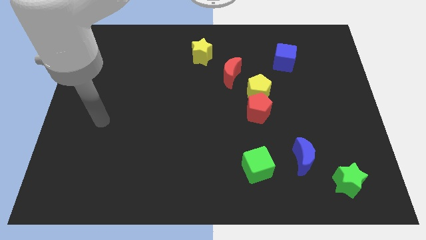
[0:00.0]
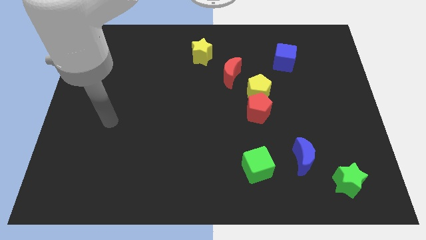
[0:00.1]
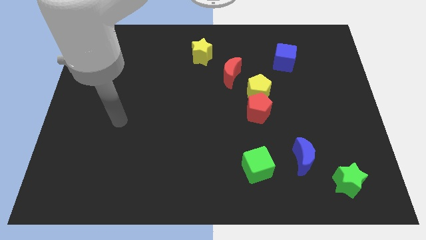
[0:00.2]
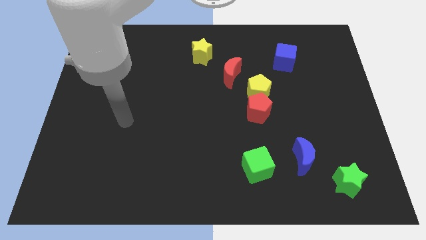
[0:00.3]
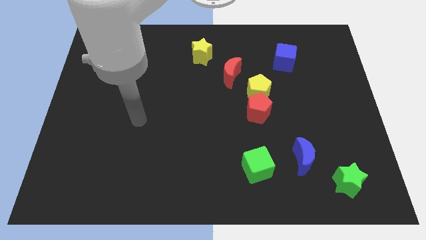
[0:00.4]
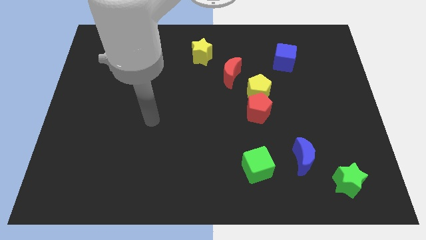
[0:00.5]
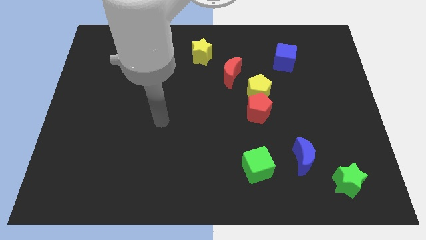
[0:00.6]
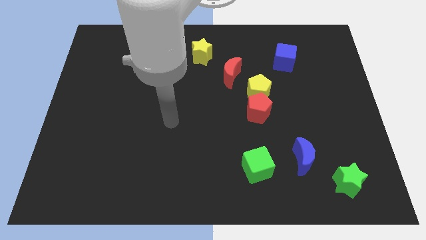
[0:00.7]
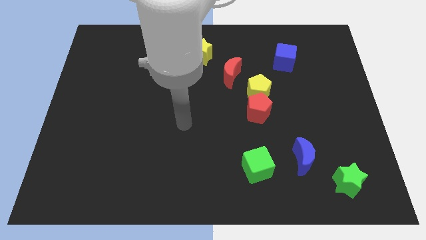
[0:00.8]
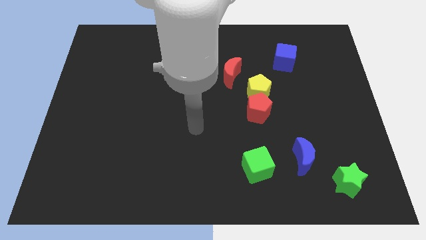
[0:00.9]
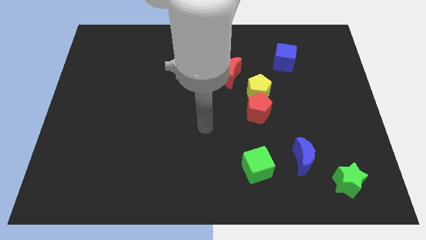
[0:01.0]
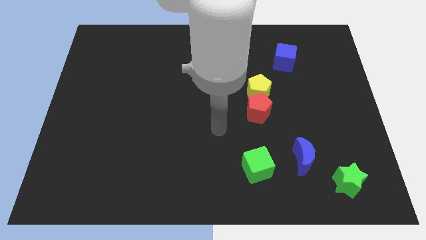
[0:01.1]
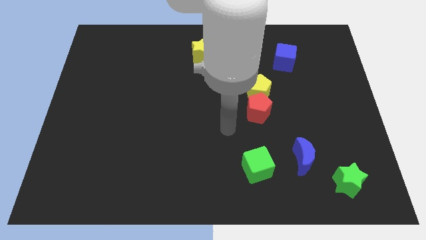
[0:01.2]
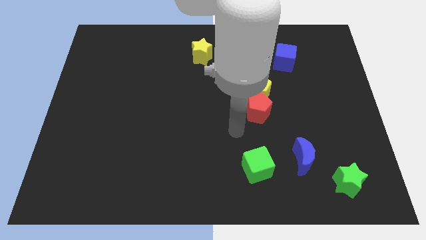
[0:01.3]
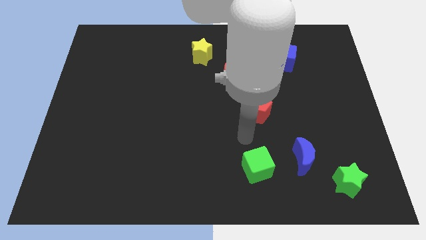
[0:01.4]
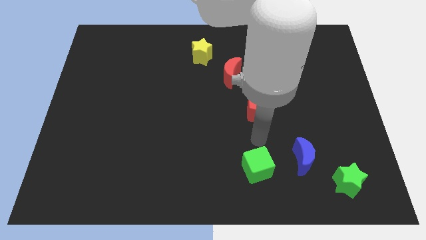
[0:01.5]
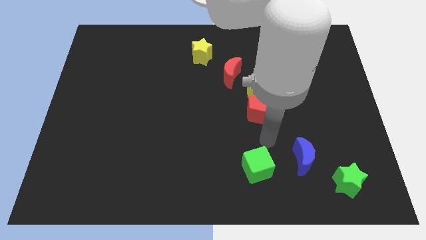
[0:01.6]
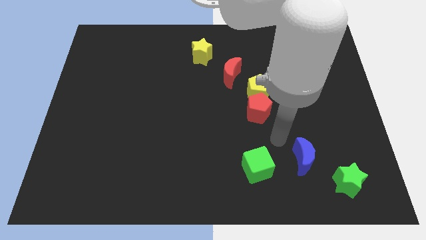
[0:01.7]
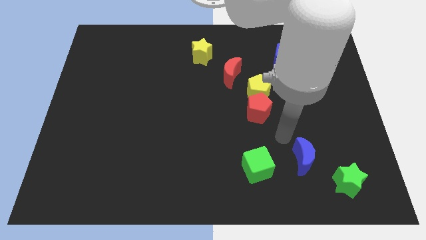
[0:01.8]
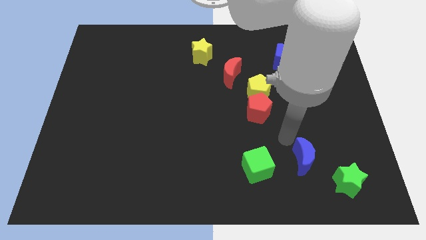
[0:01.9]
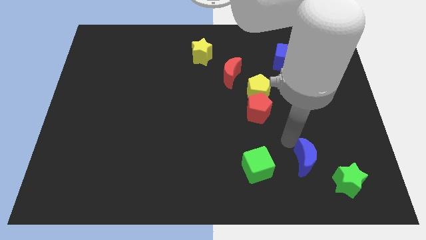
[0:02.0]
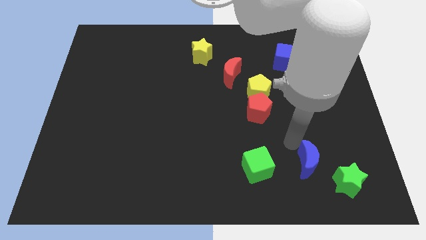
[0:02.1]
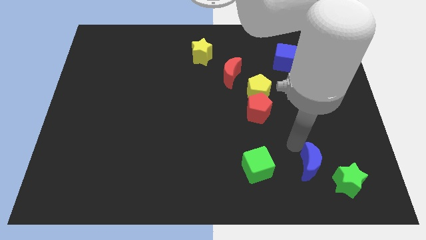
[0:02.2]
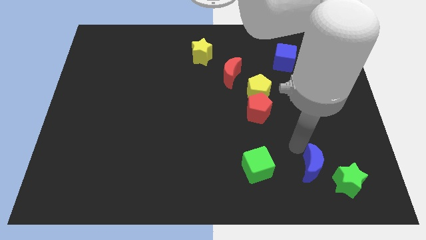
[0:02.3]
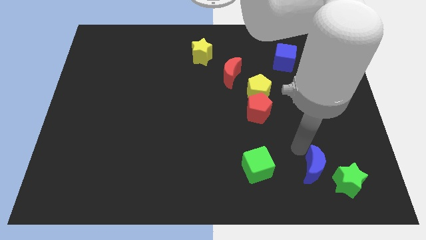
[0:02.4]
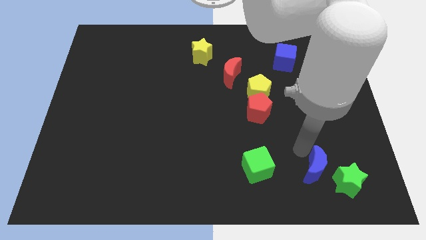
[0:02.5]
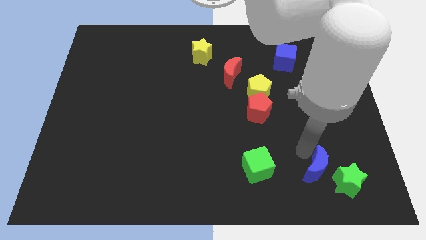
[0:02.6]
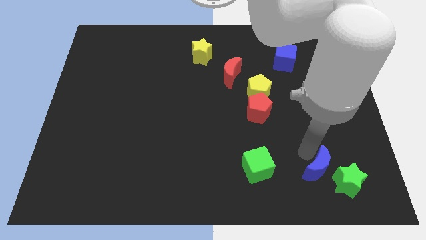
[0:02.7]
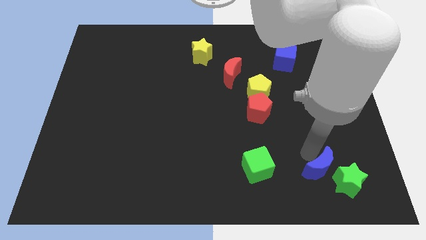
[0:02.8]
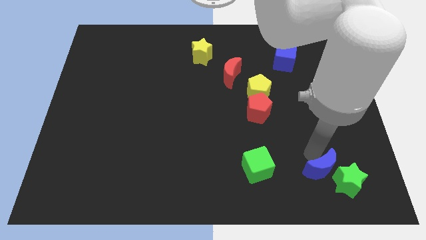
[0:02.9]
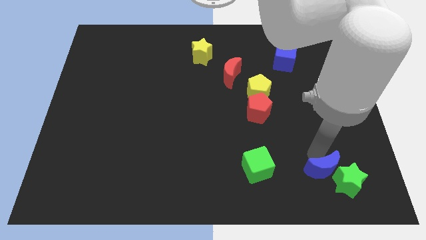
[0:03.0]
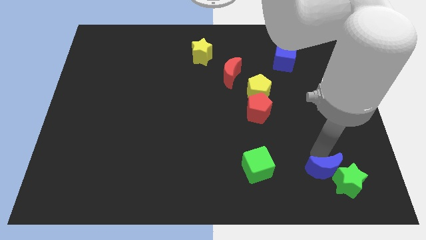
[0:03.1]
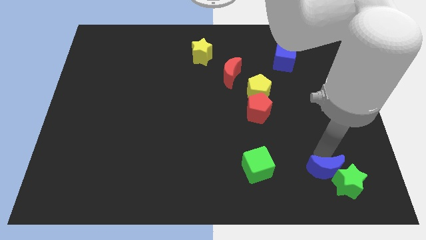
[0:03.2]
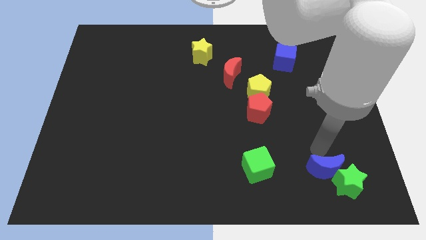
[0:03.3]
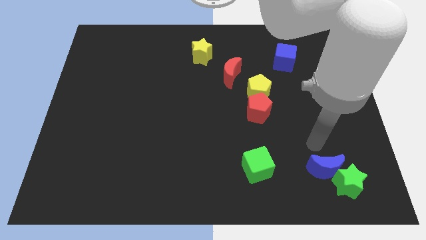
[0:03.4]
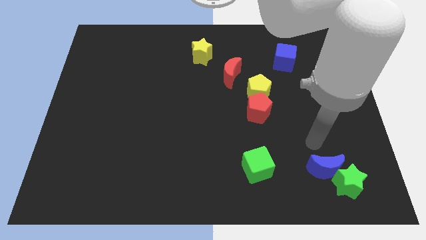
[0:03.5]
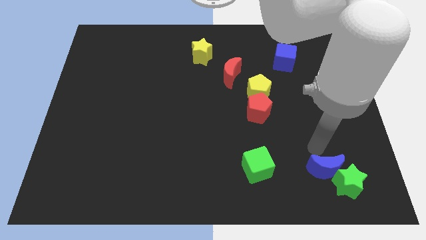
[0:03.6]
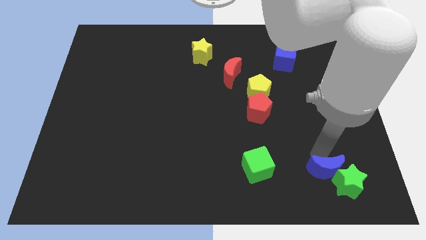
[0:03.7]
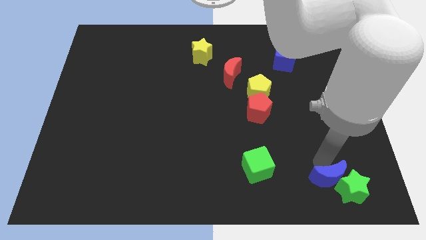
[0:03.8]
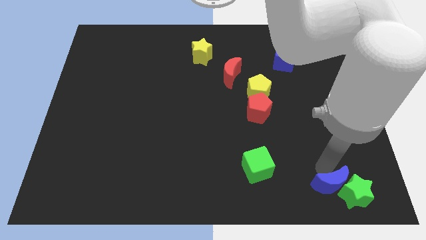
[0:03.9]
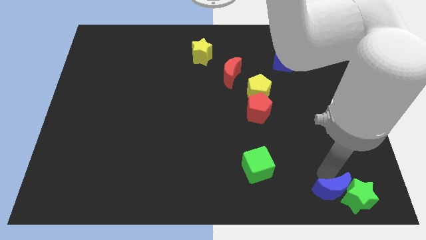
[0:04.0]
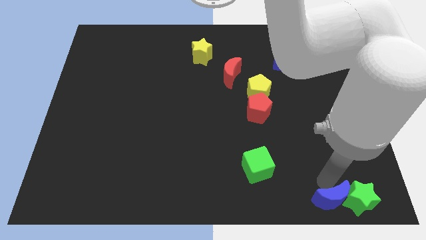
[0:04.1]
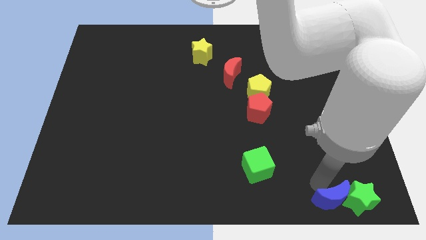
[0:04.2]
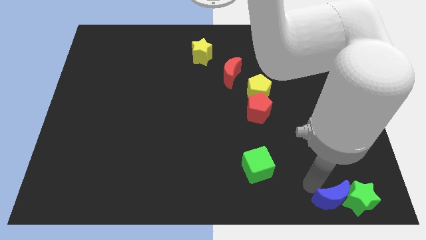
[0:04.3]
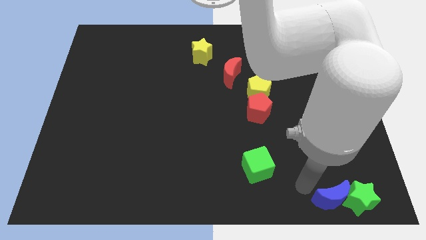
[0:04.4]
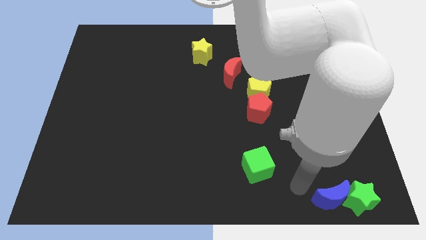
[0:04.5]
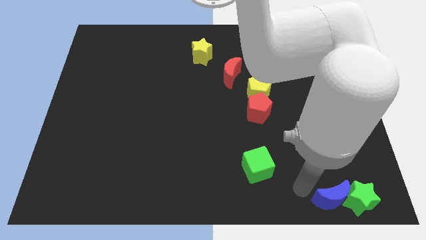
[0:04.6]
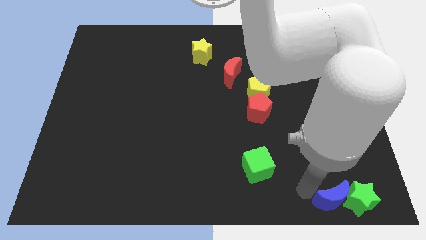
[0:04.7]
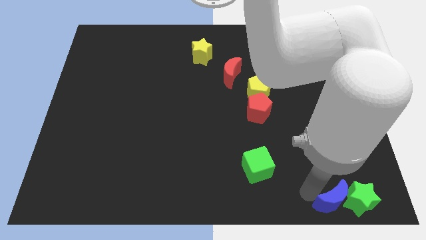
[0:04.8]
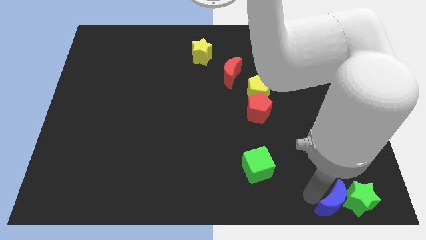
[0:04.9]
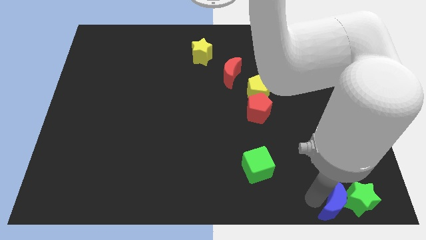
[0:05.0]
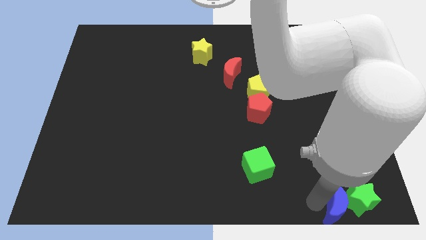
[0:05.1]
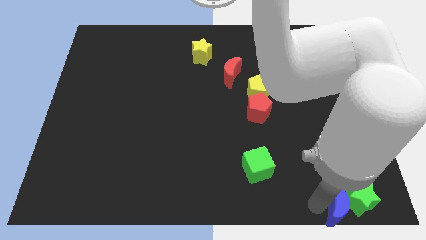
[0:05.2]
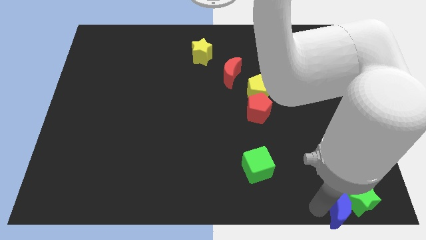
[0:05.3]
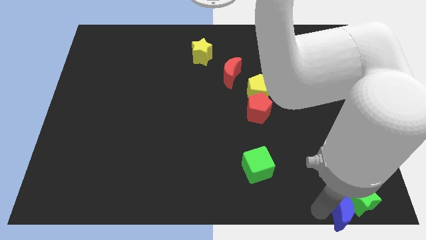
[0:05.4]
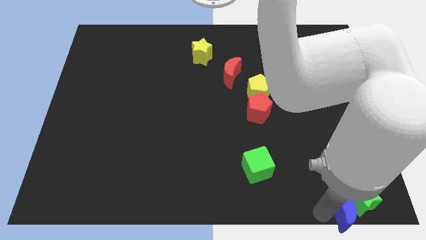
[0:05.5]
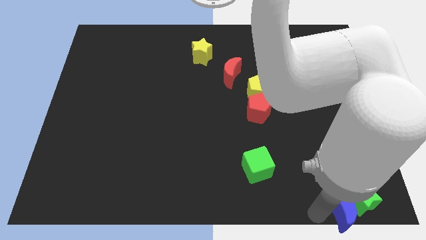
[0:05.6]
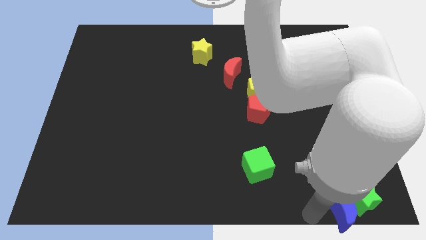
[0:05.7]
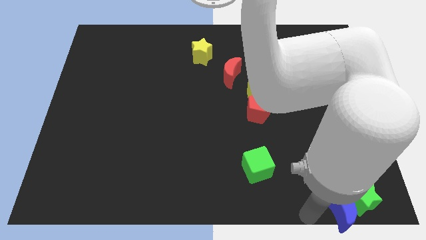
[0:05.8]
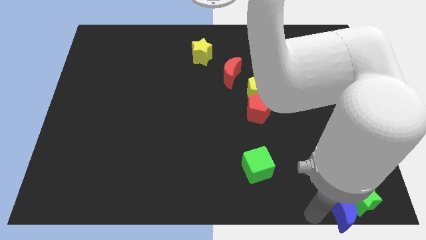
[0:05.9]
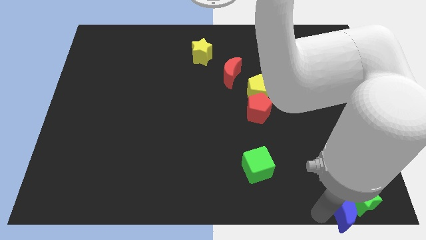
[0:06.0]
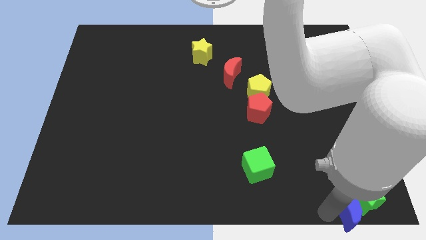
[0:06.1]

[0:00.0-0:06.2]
move the blue moon to the bottom right of the board

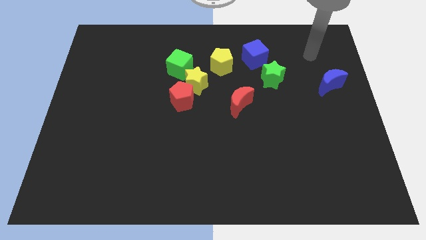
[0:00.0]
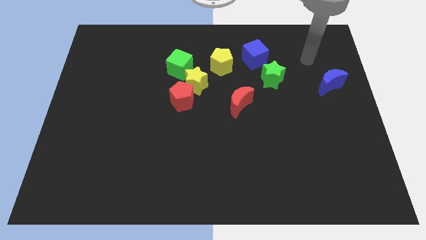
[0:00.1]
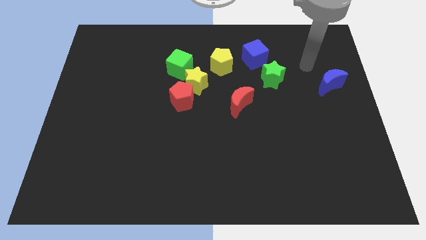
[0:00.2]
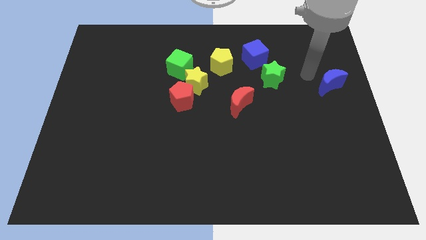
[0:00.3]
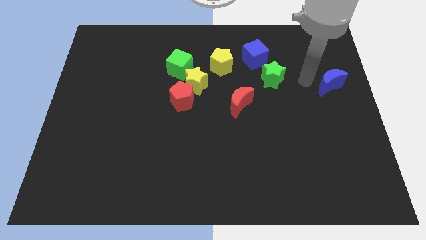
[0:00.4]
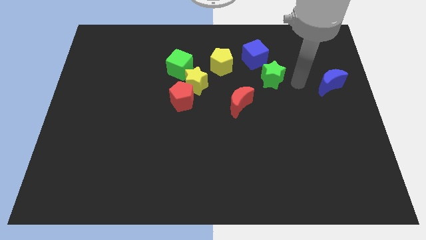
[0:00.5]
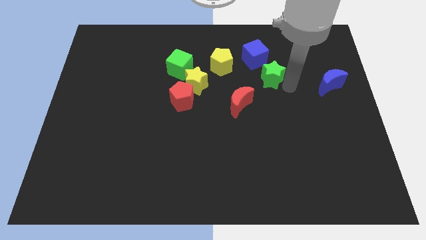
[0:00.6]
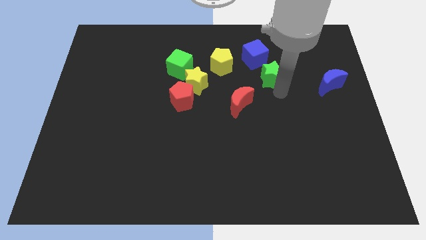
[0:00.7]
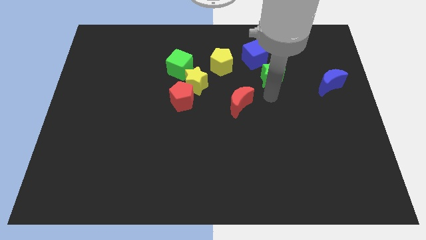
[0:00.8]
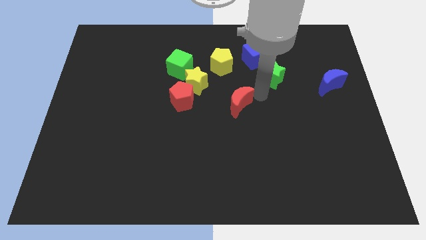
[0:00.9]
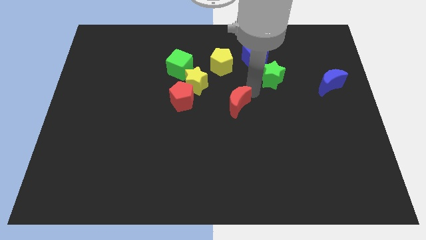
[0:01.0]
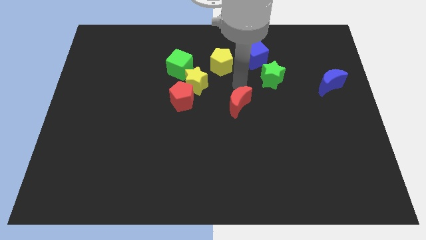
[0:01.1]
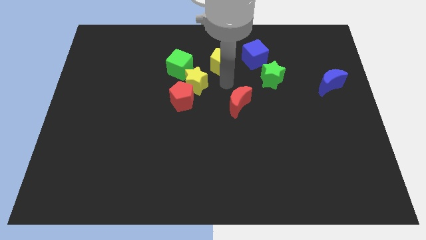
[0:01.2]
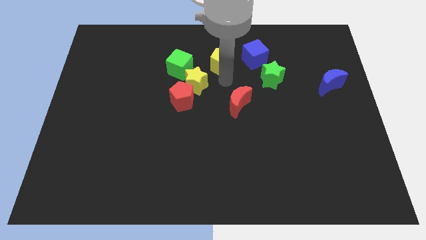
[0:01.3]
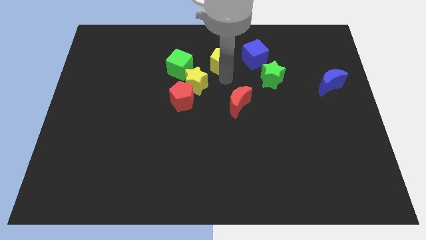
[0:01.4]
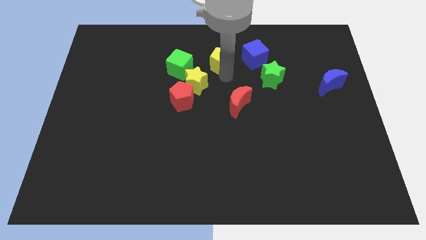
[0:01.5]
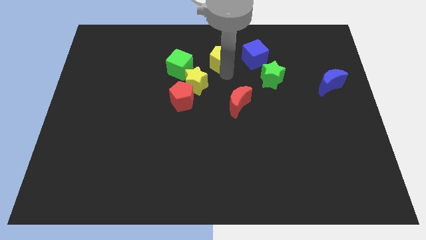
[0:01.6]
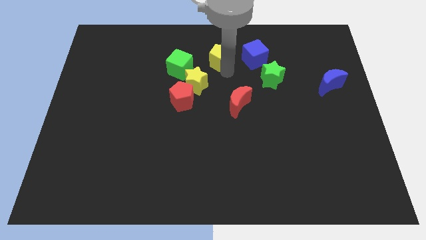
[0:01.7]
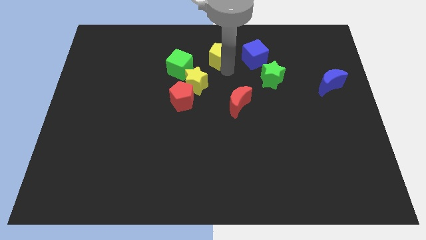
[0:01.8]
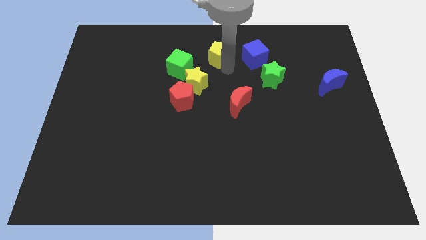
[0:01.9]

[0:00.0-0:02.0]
slide the yellow pentagon to the top
